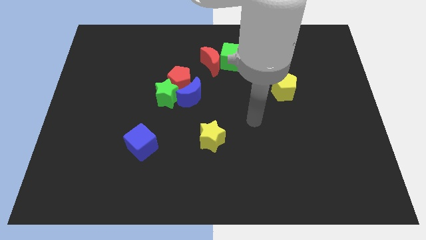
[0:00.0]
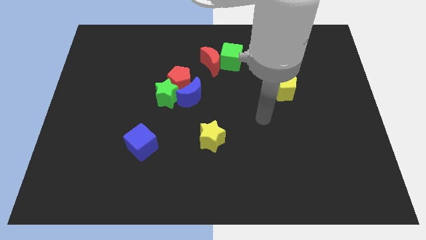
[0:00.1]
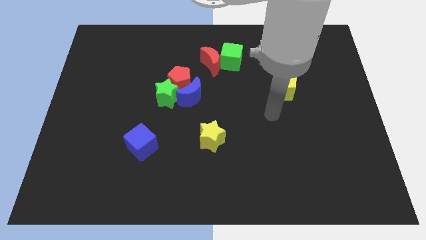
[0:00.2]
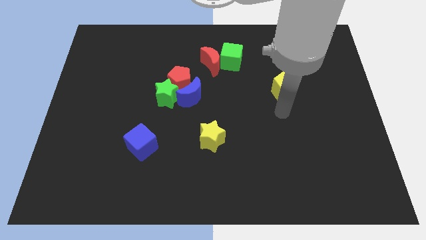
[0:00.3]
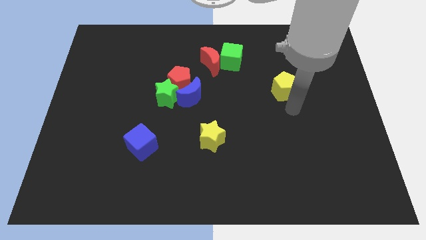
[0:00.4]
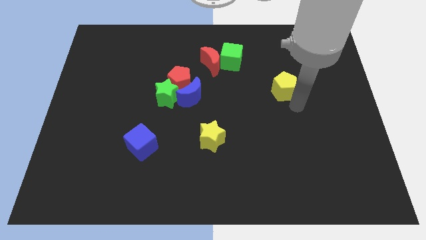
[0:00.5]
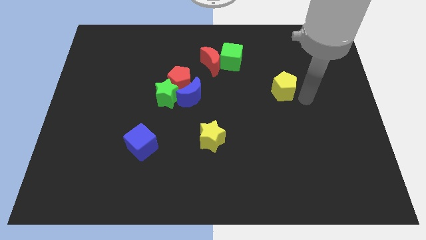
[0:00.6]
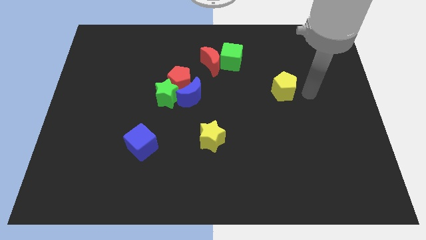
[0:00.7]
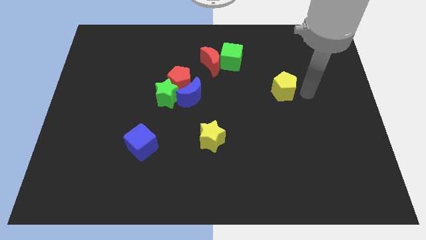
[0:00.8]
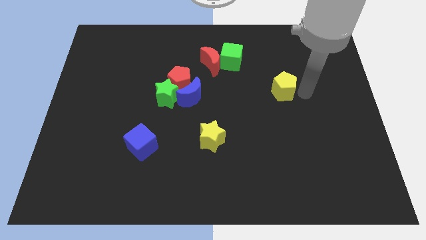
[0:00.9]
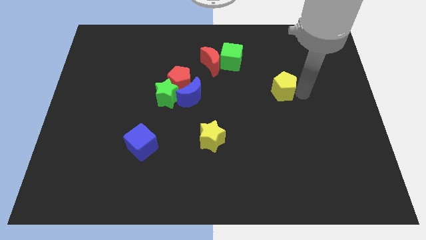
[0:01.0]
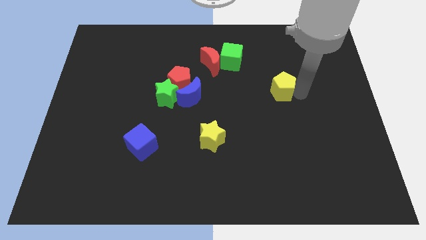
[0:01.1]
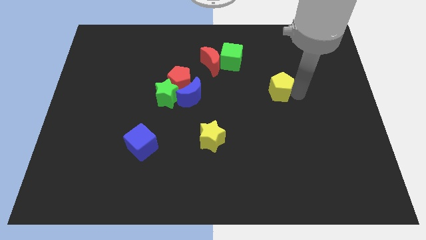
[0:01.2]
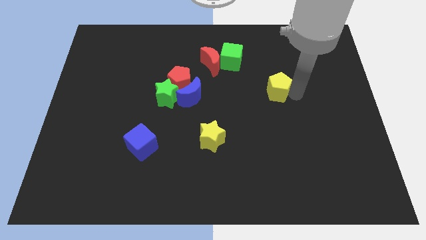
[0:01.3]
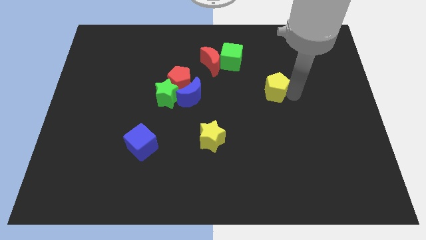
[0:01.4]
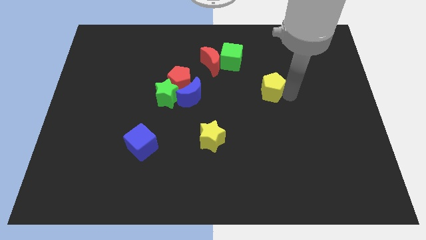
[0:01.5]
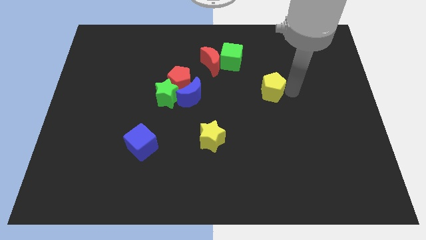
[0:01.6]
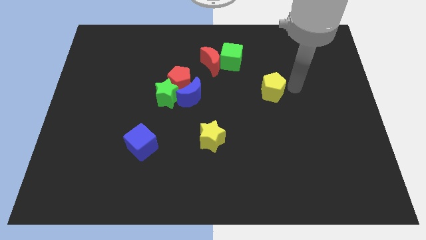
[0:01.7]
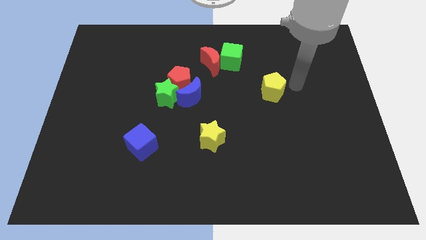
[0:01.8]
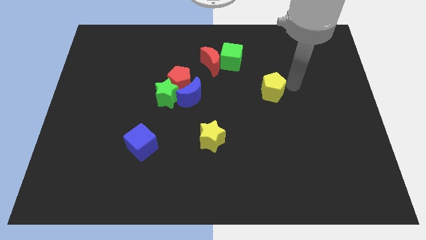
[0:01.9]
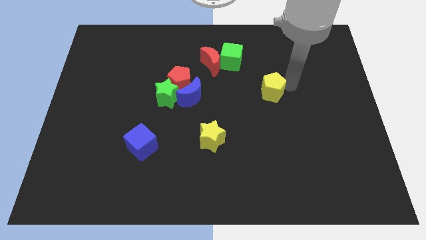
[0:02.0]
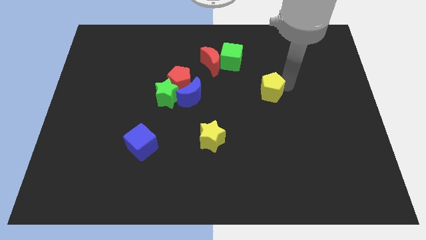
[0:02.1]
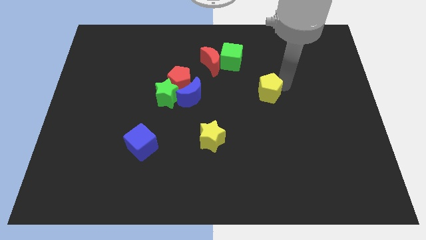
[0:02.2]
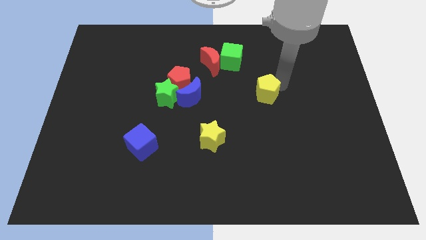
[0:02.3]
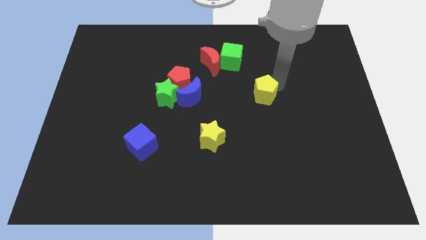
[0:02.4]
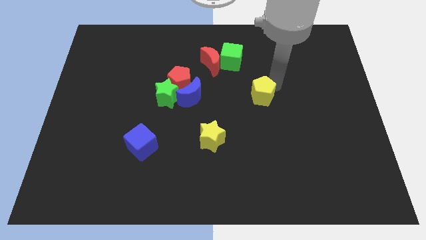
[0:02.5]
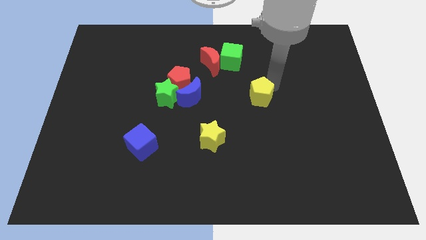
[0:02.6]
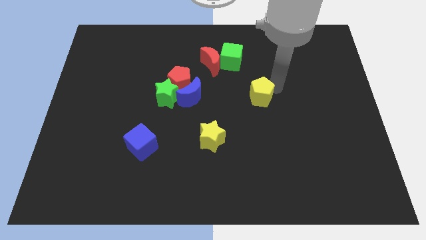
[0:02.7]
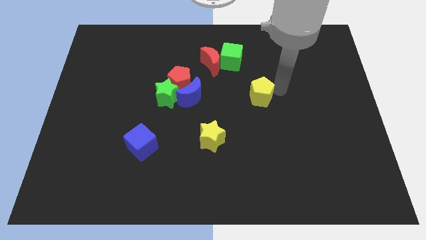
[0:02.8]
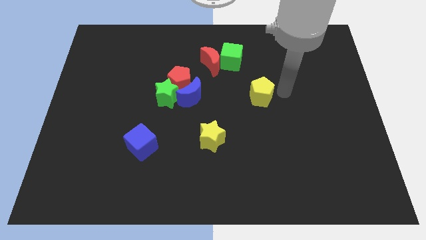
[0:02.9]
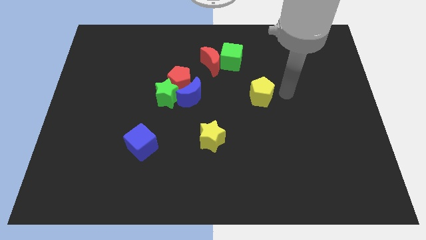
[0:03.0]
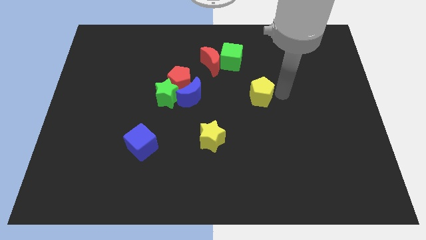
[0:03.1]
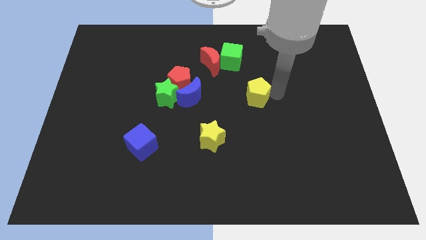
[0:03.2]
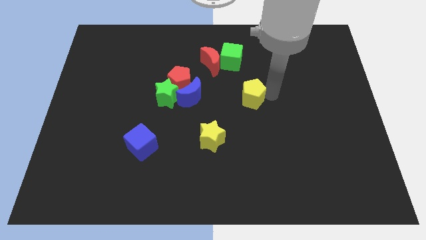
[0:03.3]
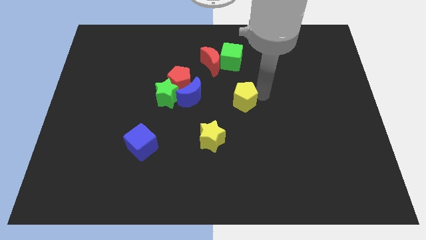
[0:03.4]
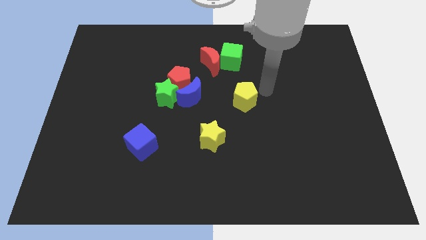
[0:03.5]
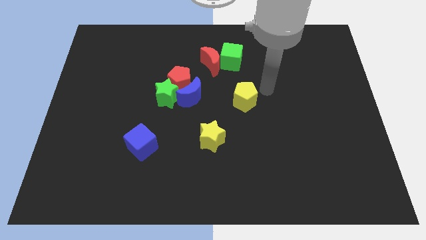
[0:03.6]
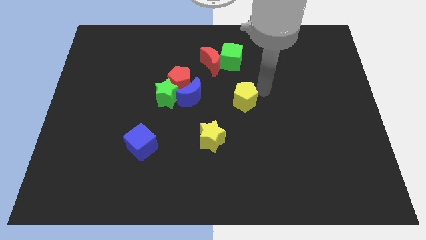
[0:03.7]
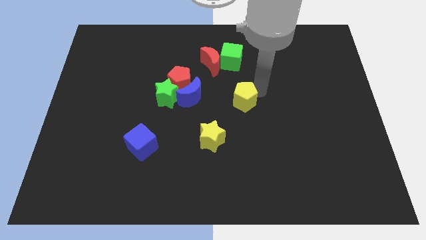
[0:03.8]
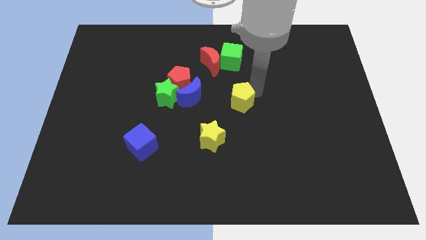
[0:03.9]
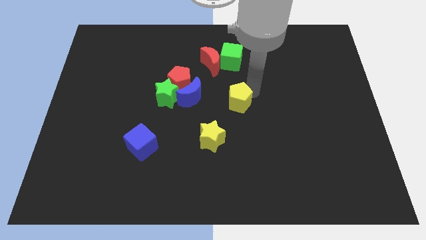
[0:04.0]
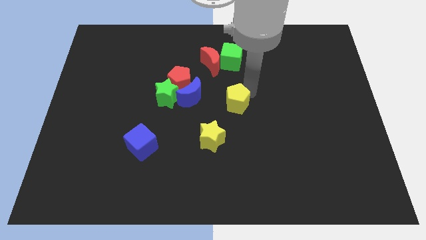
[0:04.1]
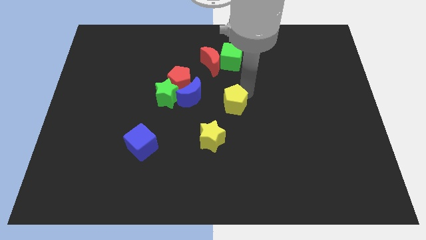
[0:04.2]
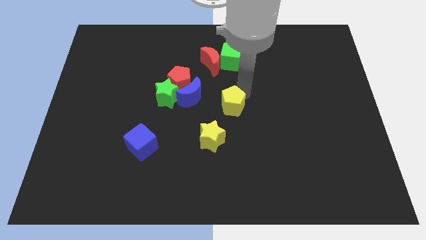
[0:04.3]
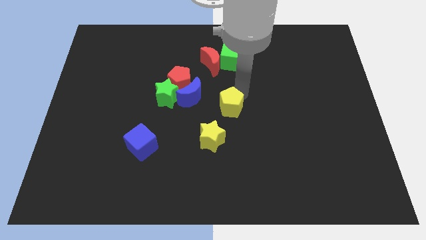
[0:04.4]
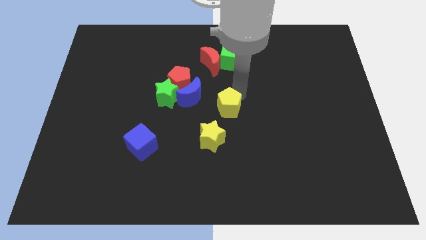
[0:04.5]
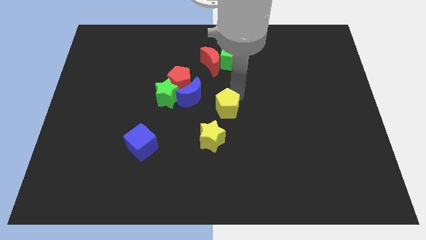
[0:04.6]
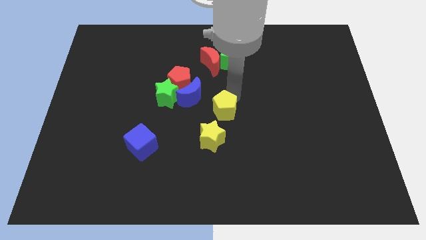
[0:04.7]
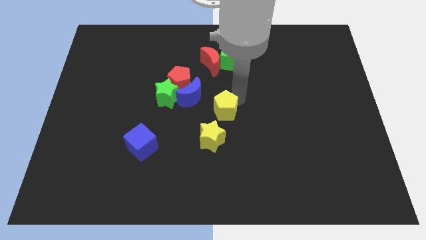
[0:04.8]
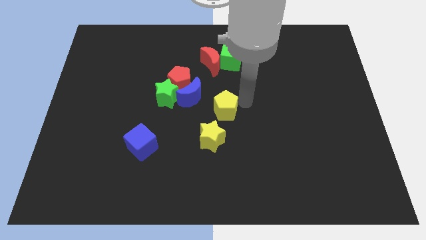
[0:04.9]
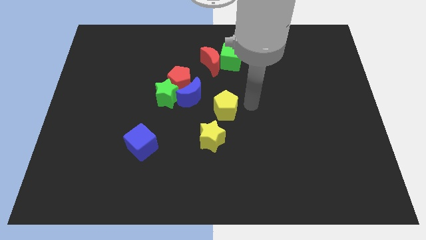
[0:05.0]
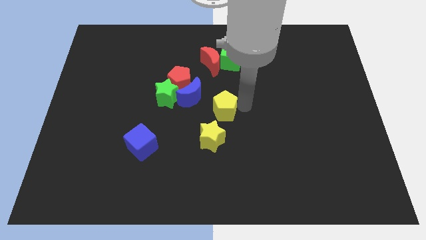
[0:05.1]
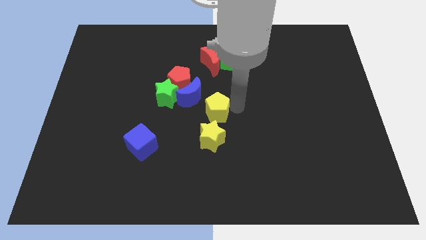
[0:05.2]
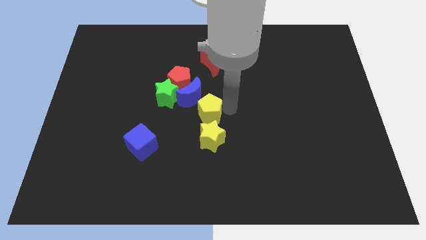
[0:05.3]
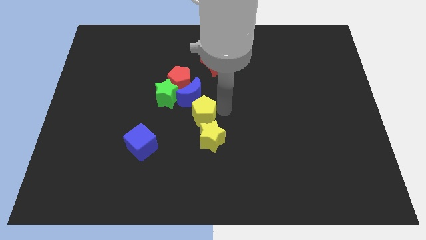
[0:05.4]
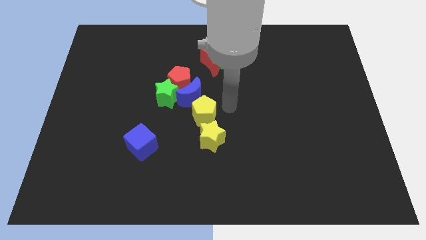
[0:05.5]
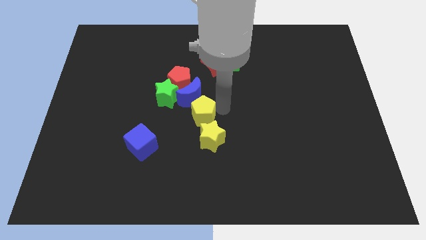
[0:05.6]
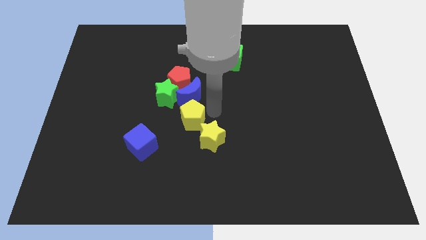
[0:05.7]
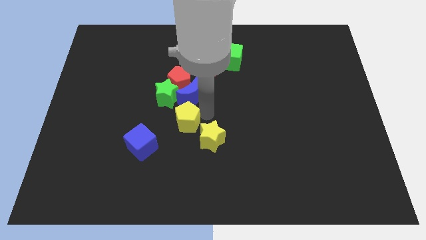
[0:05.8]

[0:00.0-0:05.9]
put the yellow pentagon to the top right of the blue cube
